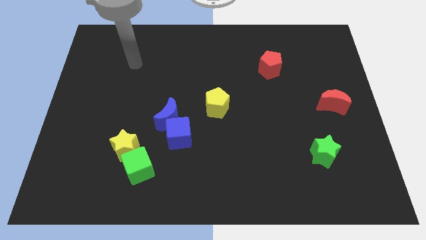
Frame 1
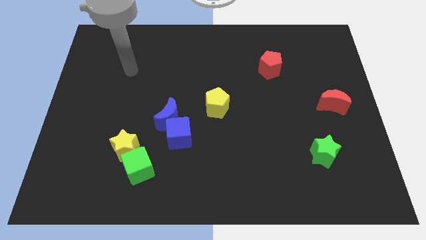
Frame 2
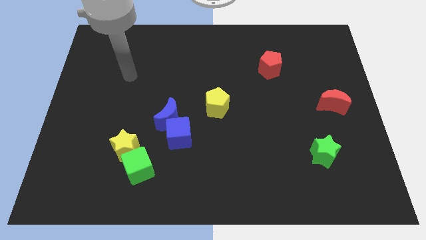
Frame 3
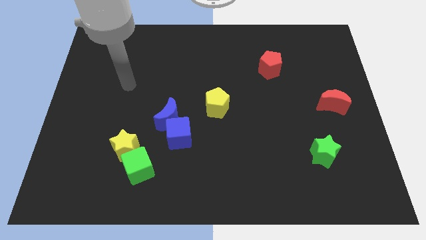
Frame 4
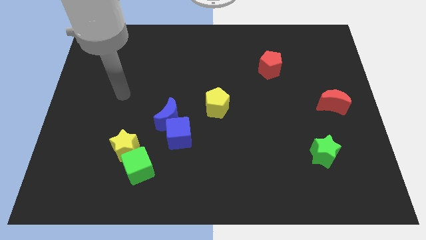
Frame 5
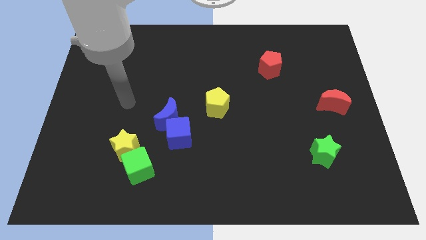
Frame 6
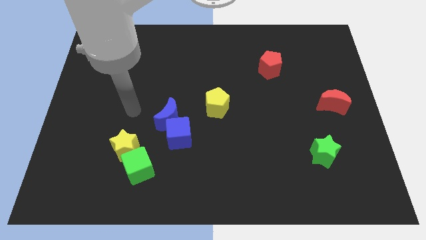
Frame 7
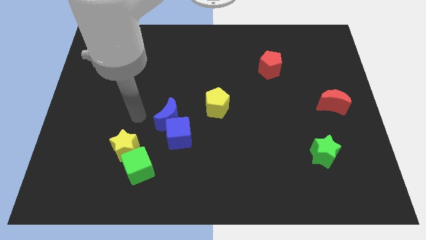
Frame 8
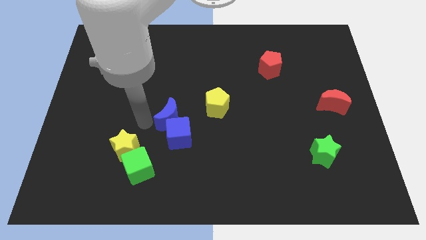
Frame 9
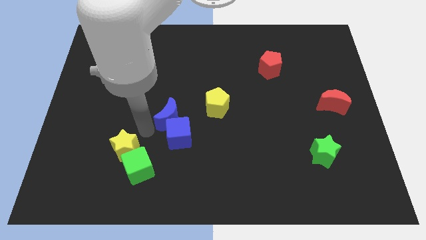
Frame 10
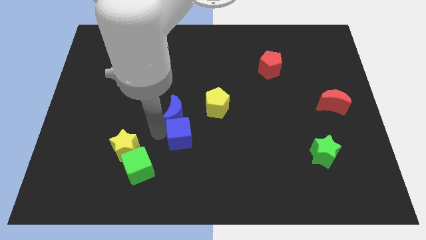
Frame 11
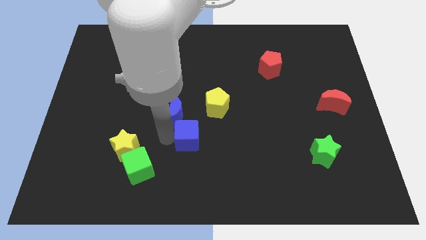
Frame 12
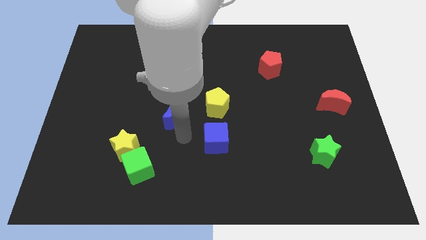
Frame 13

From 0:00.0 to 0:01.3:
move the blue moon away from the blue cube

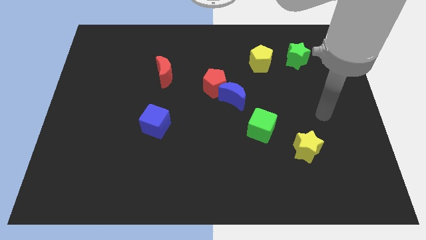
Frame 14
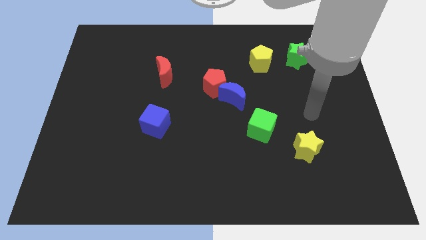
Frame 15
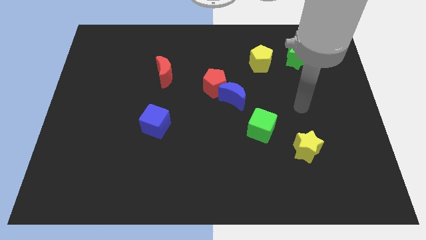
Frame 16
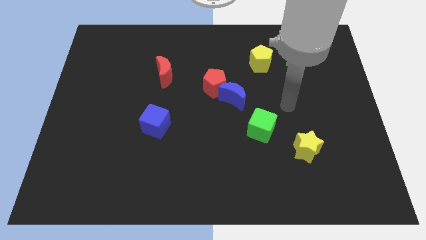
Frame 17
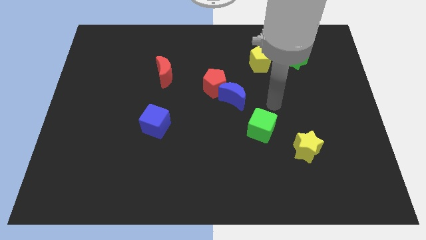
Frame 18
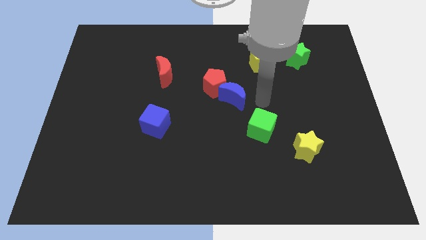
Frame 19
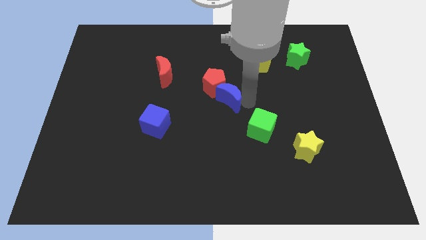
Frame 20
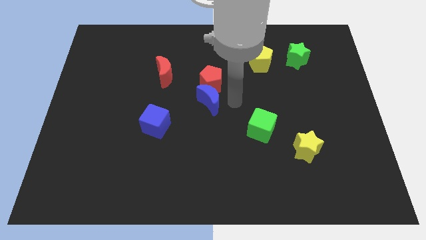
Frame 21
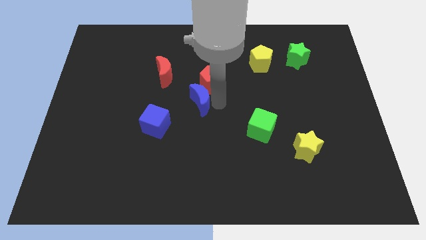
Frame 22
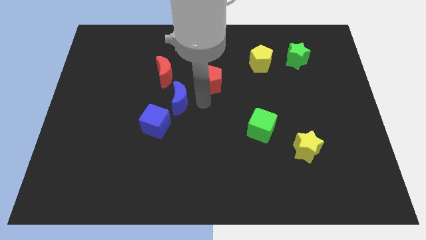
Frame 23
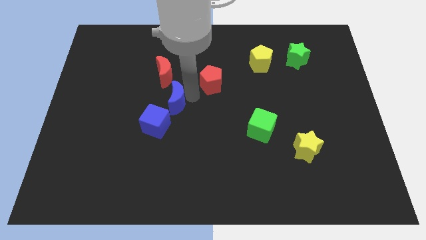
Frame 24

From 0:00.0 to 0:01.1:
move the red pentagon away from the blue moon

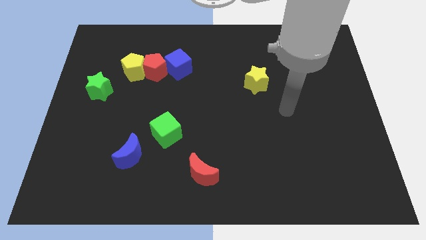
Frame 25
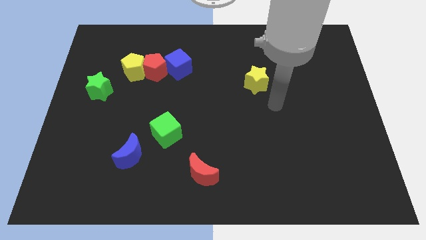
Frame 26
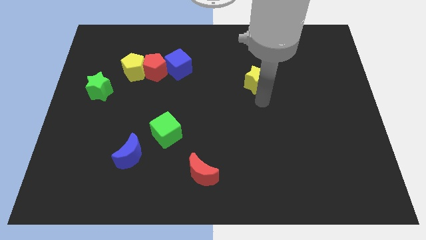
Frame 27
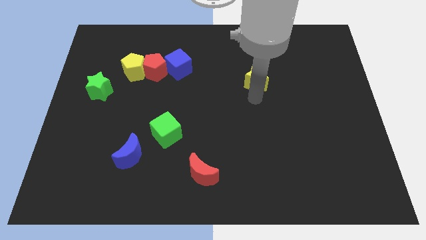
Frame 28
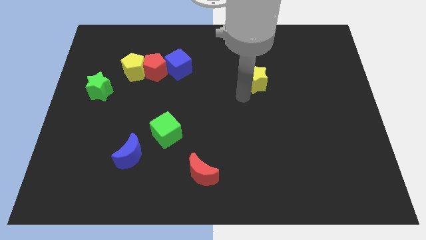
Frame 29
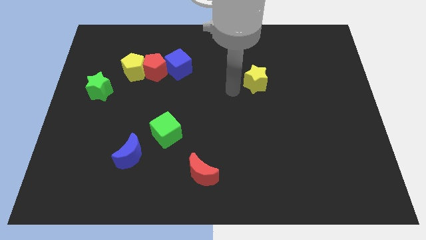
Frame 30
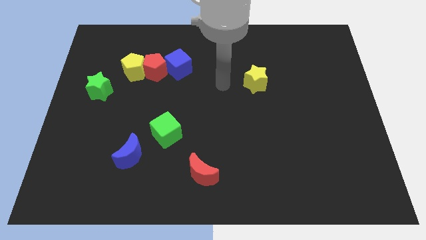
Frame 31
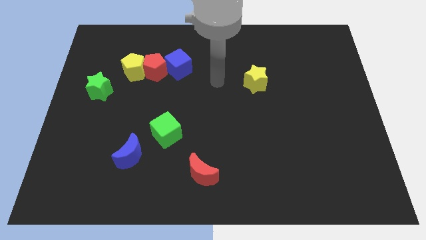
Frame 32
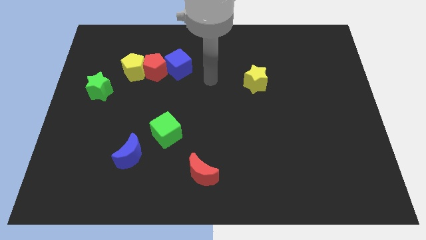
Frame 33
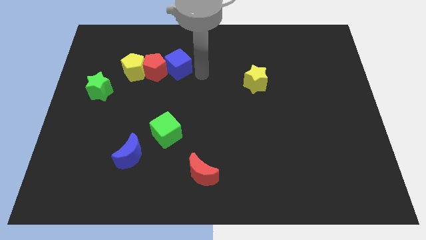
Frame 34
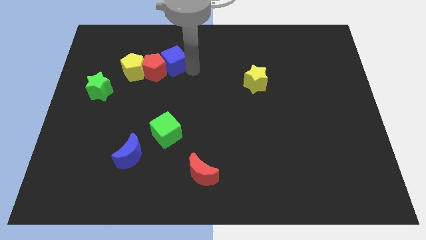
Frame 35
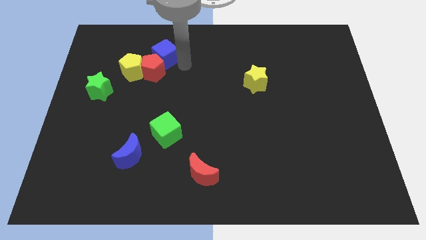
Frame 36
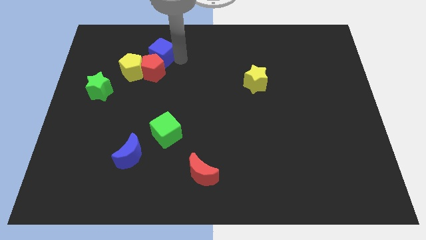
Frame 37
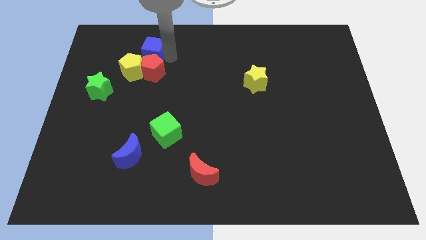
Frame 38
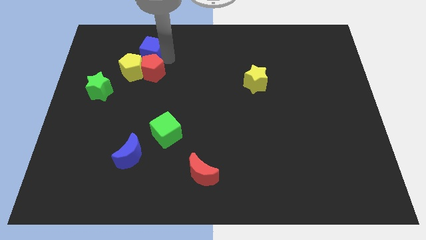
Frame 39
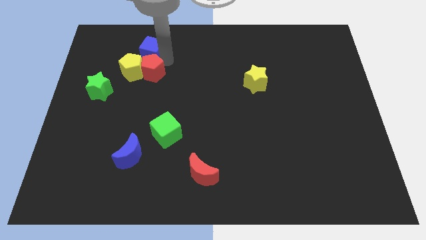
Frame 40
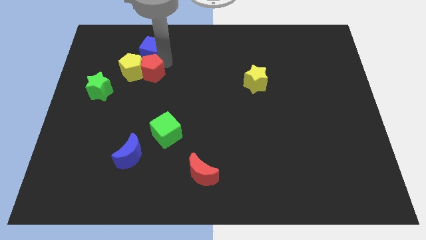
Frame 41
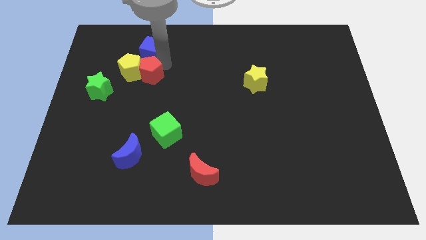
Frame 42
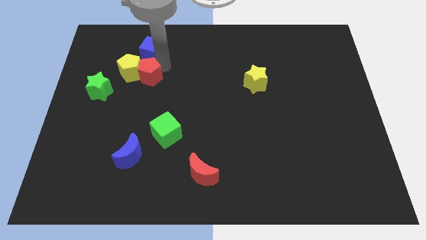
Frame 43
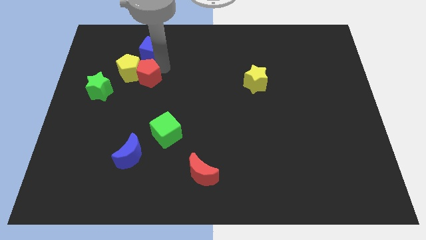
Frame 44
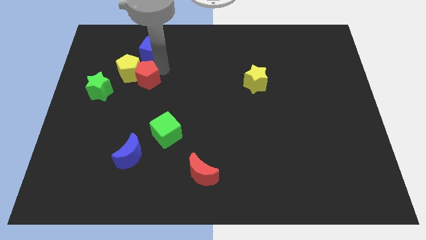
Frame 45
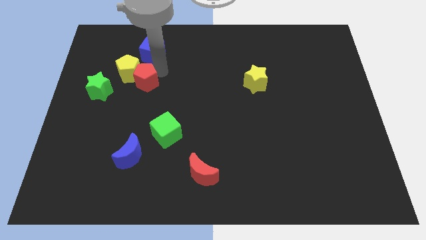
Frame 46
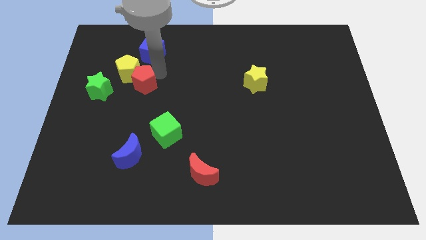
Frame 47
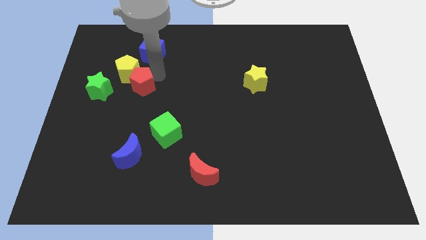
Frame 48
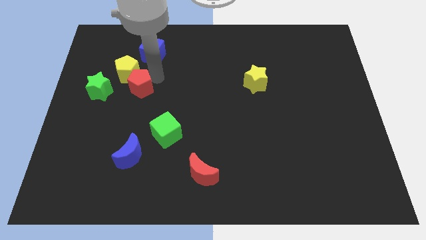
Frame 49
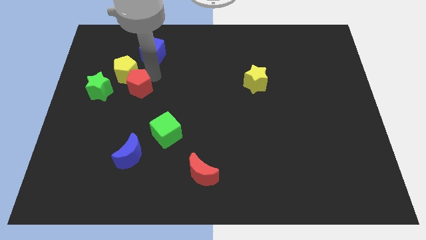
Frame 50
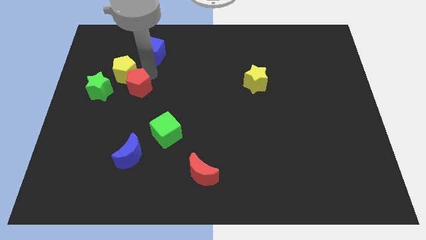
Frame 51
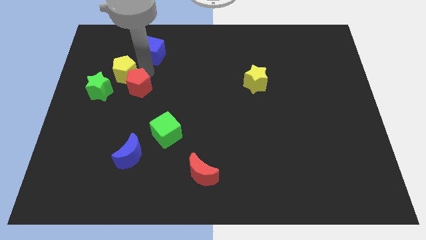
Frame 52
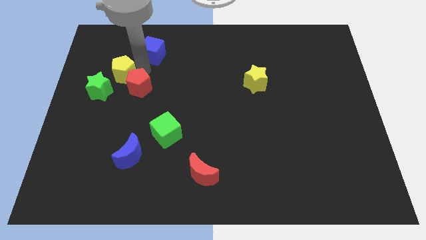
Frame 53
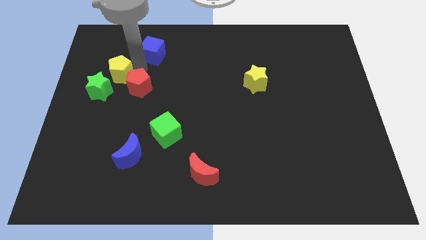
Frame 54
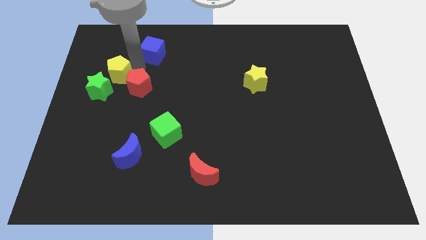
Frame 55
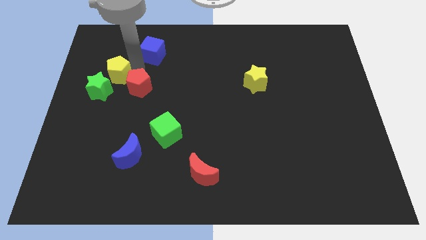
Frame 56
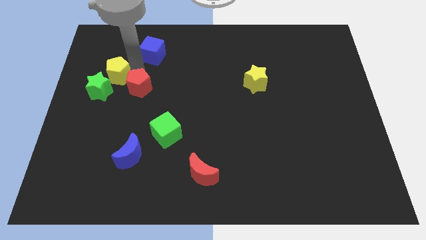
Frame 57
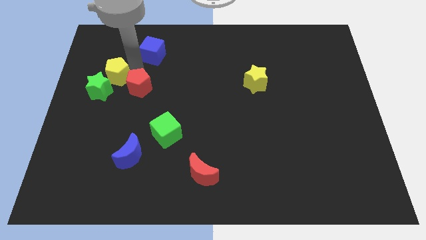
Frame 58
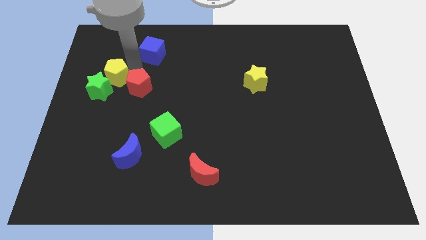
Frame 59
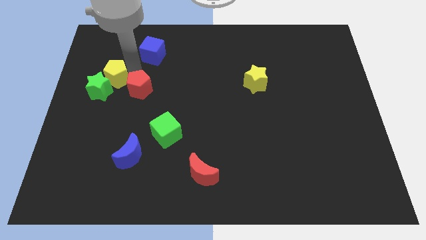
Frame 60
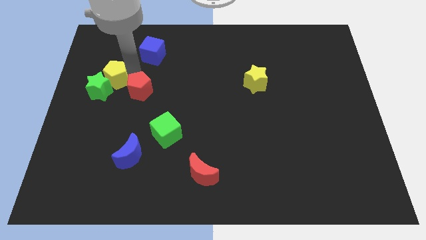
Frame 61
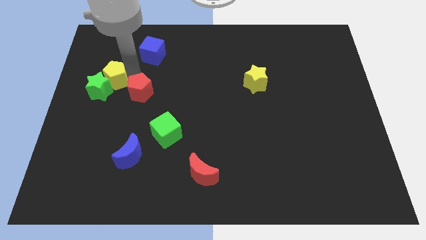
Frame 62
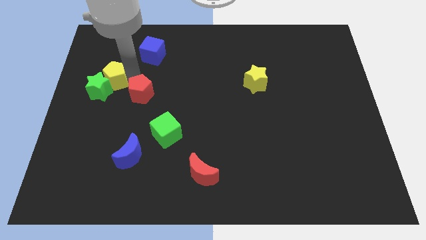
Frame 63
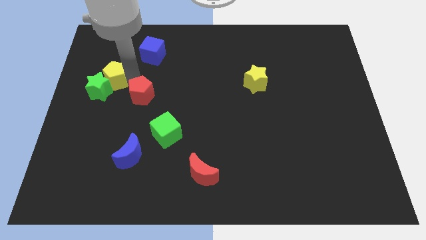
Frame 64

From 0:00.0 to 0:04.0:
move the red pentagon away from the yellow pentagon and blue cube

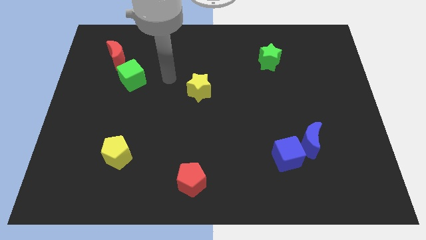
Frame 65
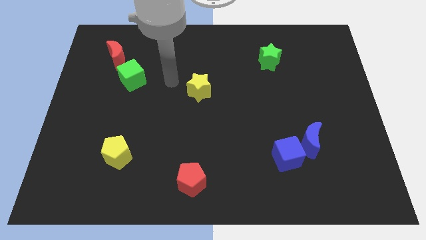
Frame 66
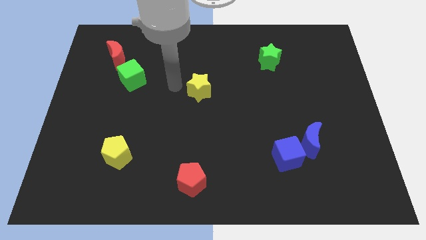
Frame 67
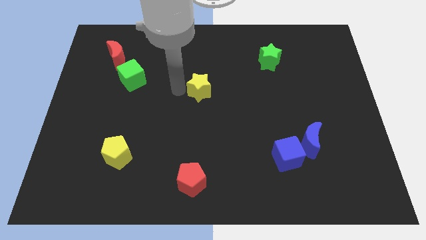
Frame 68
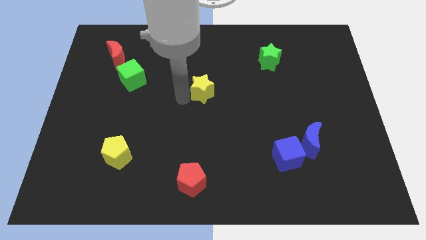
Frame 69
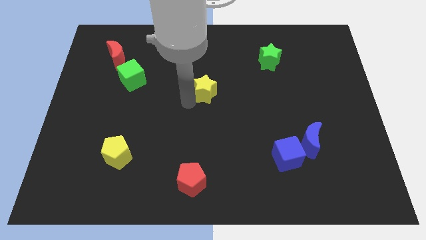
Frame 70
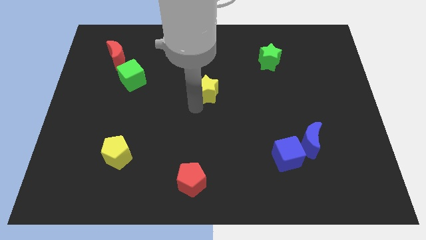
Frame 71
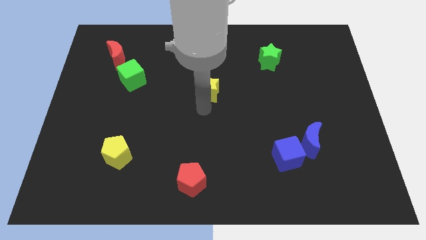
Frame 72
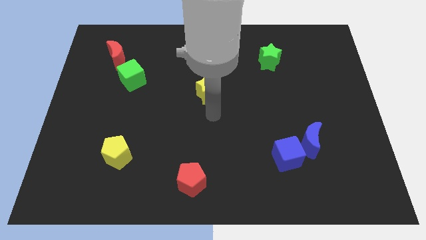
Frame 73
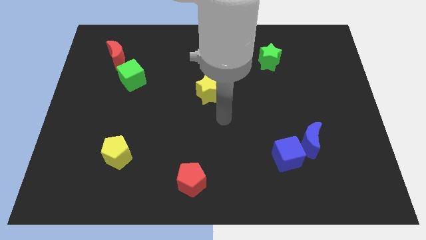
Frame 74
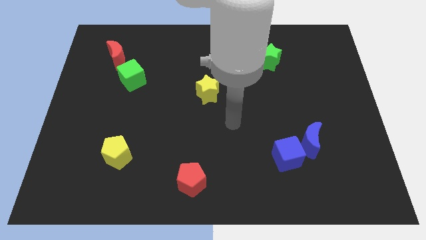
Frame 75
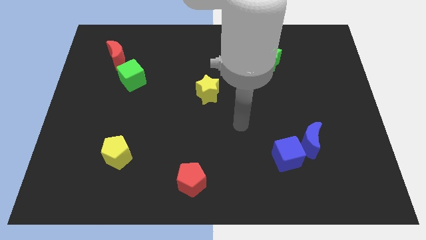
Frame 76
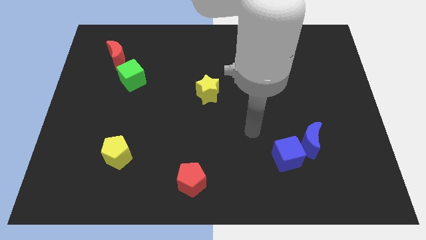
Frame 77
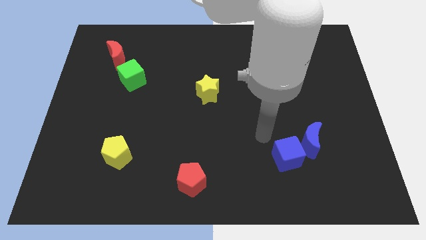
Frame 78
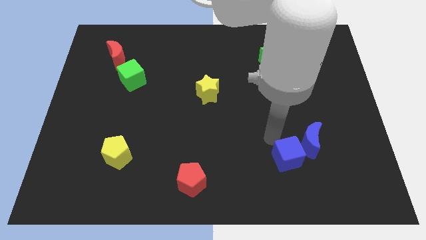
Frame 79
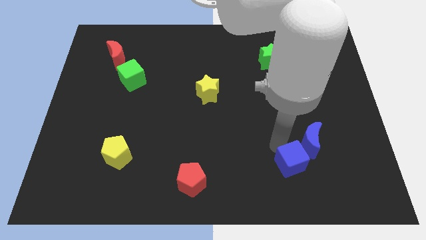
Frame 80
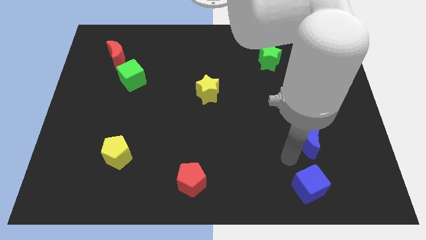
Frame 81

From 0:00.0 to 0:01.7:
pull the blue moon apart from the blue cube

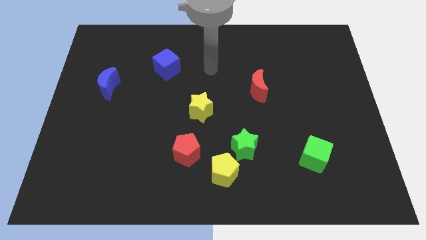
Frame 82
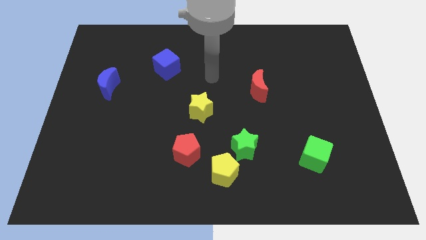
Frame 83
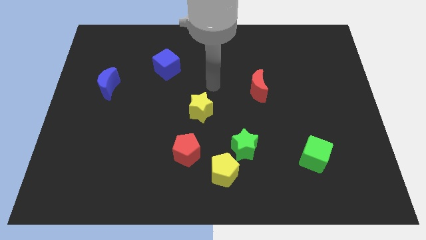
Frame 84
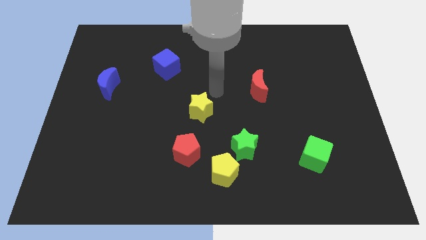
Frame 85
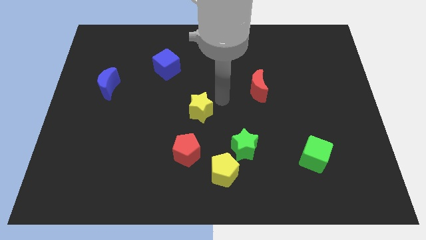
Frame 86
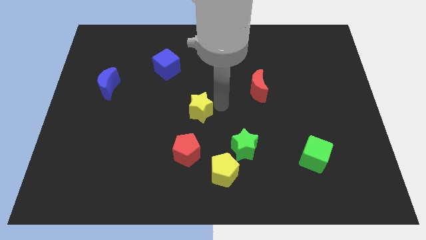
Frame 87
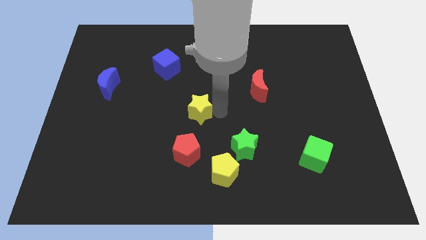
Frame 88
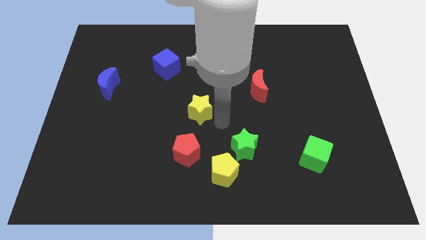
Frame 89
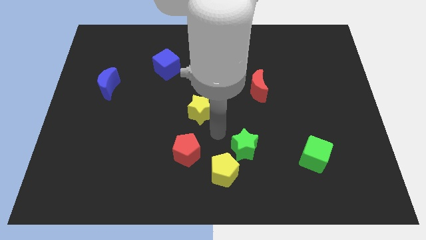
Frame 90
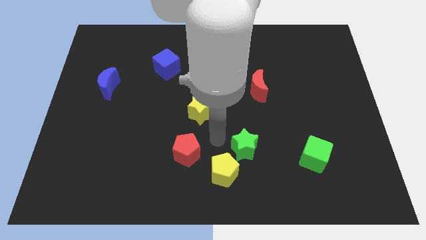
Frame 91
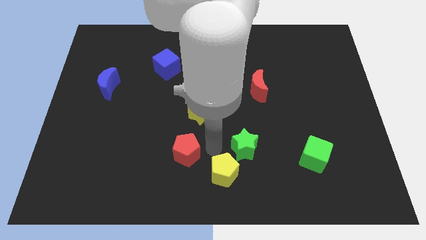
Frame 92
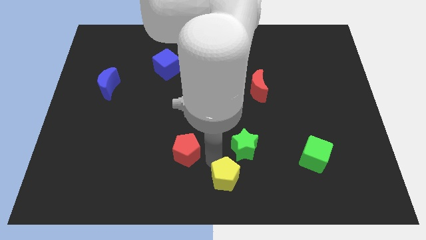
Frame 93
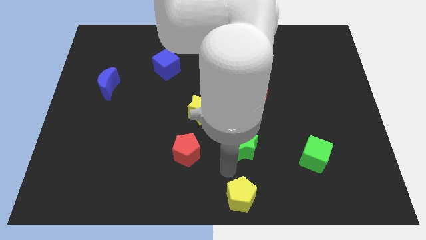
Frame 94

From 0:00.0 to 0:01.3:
pull the green star apart from the yellow pentagon
